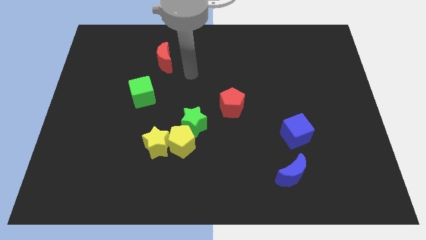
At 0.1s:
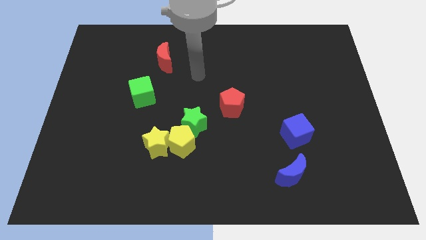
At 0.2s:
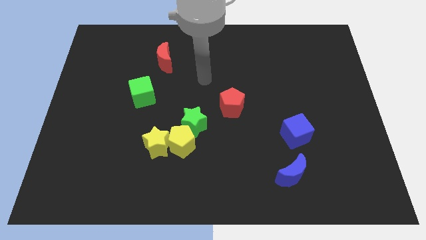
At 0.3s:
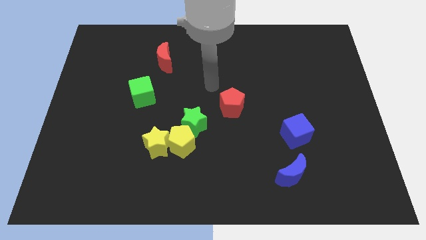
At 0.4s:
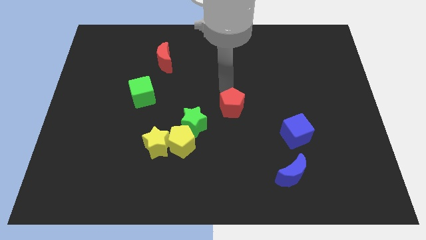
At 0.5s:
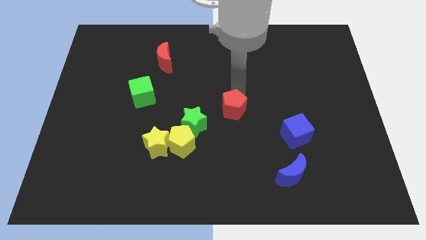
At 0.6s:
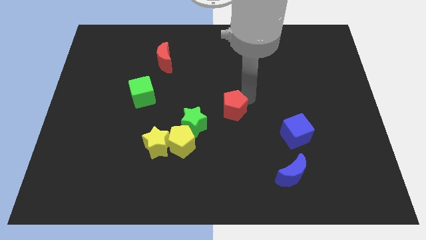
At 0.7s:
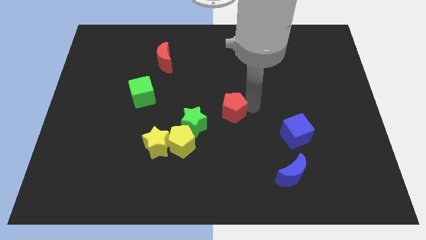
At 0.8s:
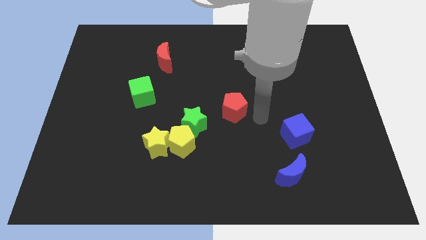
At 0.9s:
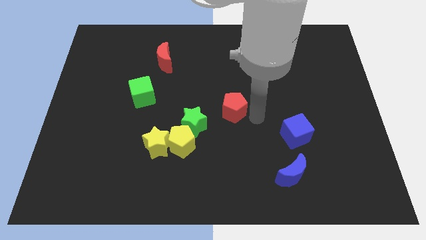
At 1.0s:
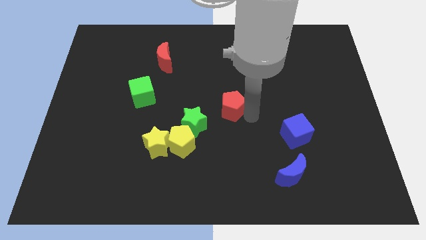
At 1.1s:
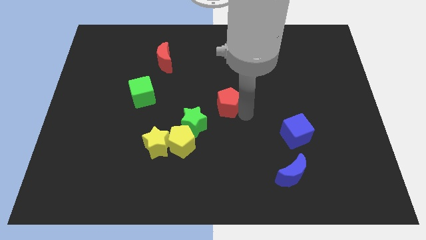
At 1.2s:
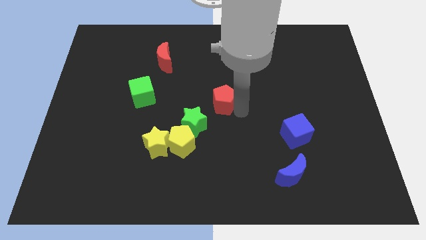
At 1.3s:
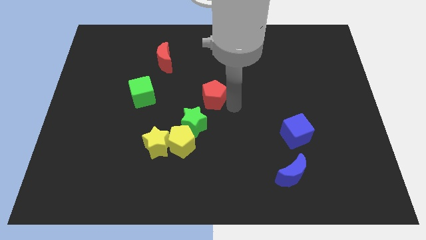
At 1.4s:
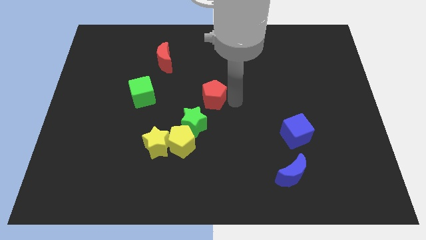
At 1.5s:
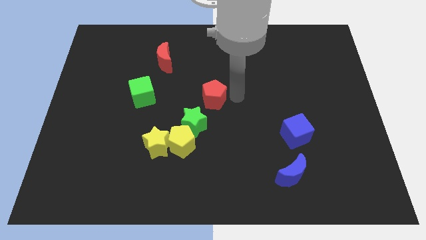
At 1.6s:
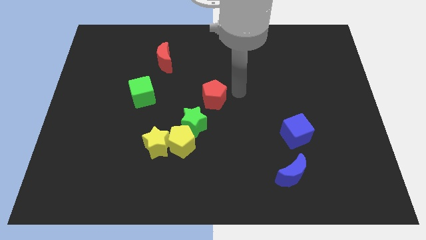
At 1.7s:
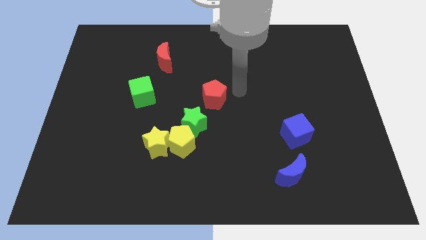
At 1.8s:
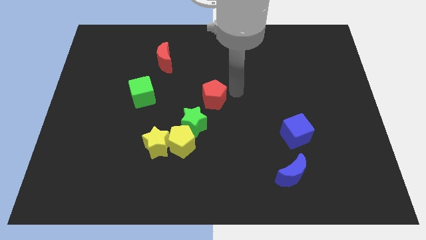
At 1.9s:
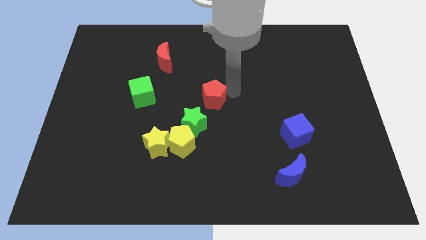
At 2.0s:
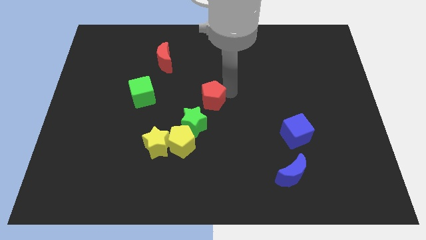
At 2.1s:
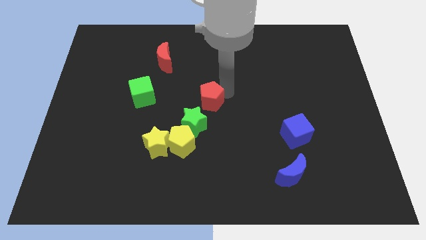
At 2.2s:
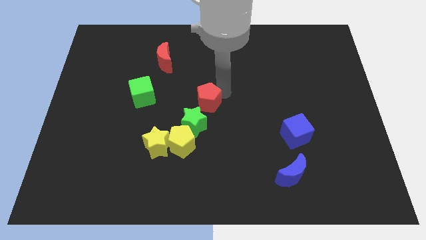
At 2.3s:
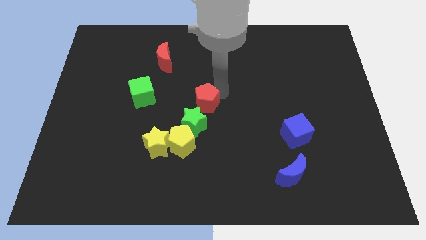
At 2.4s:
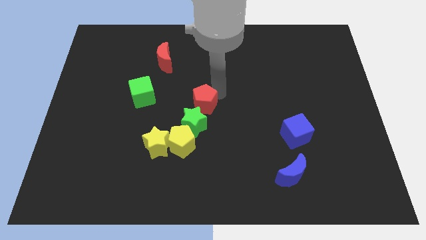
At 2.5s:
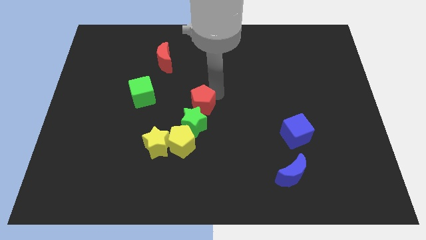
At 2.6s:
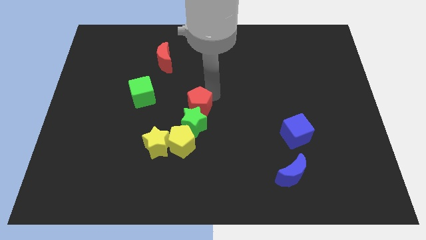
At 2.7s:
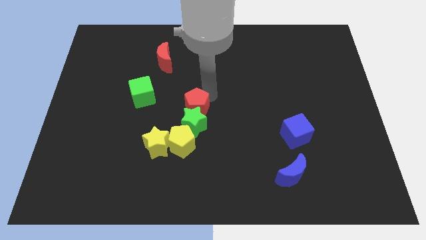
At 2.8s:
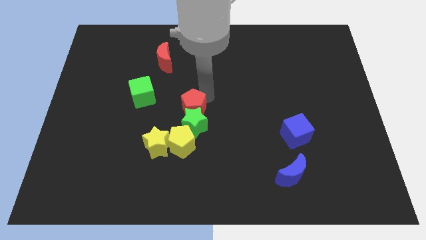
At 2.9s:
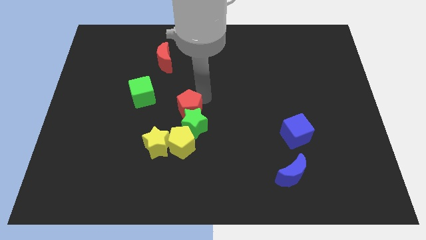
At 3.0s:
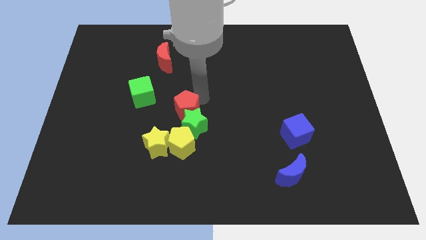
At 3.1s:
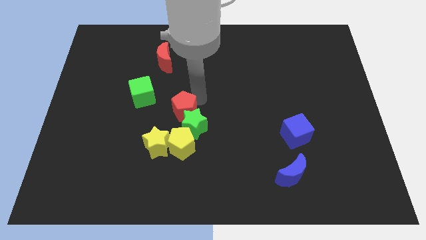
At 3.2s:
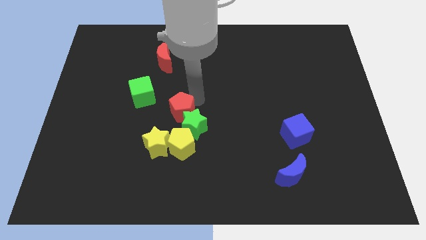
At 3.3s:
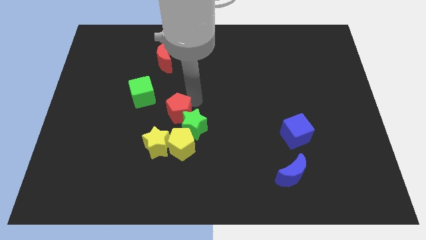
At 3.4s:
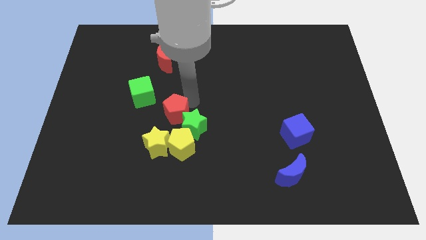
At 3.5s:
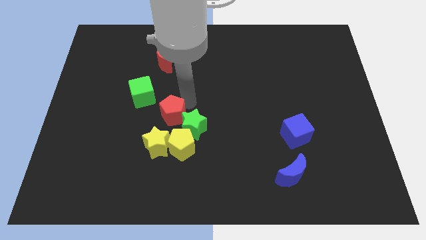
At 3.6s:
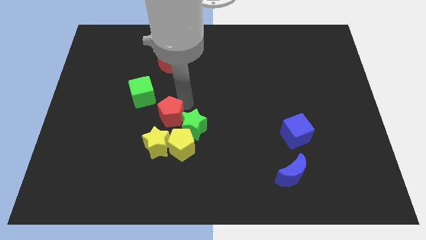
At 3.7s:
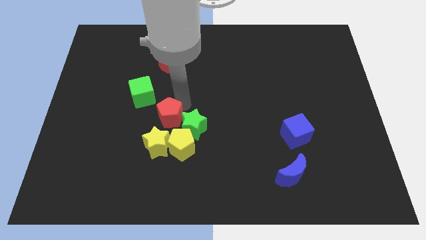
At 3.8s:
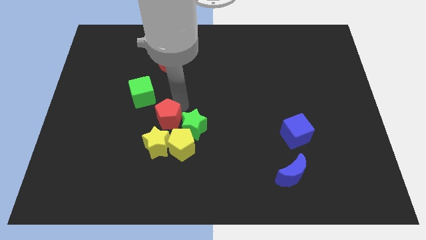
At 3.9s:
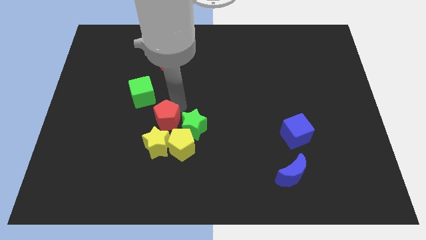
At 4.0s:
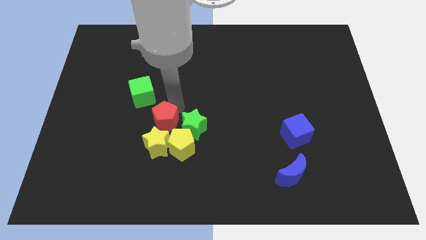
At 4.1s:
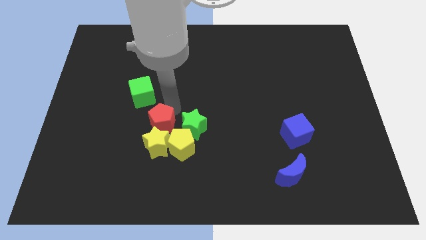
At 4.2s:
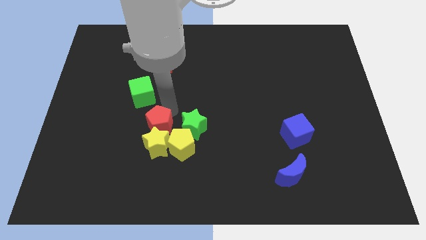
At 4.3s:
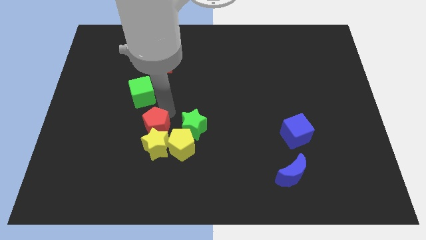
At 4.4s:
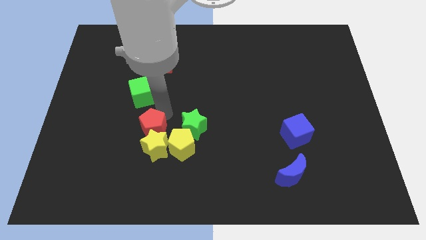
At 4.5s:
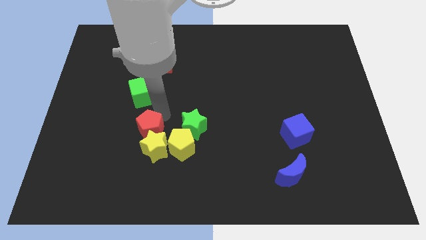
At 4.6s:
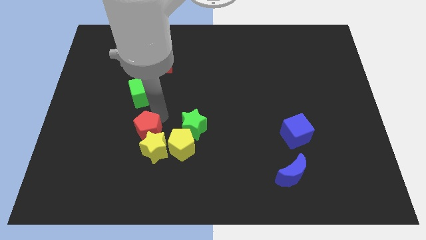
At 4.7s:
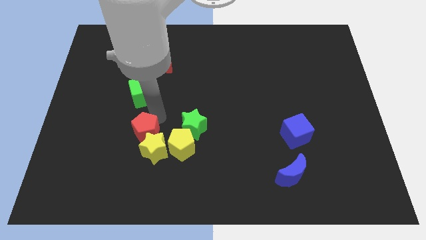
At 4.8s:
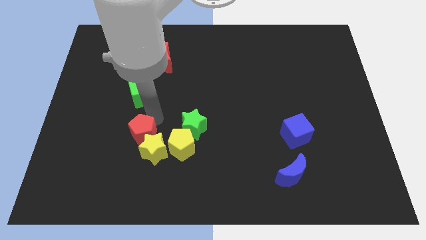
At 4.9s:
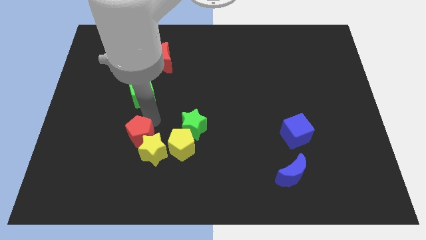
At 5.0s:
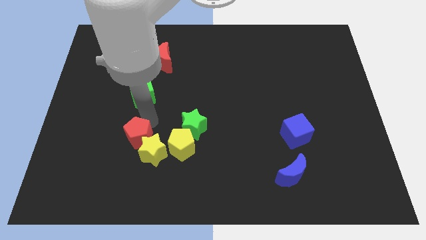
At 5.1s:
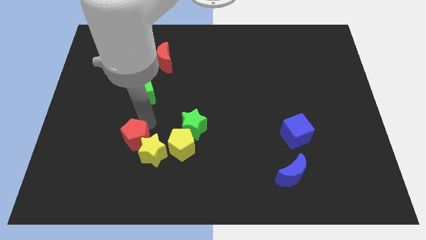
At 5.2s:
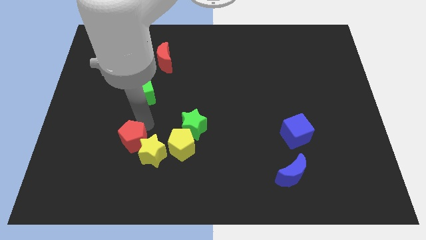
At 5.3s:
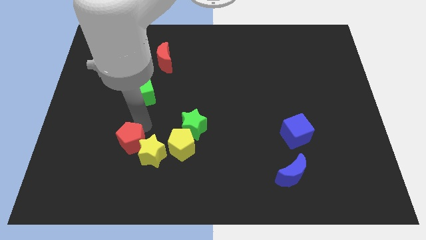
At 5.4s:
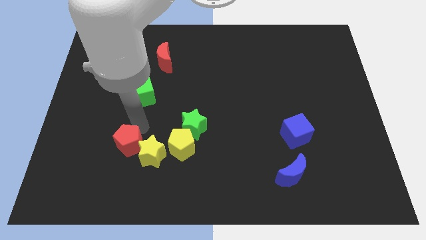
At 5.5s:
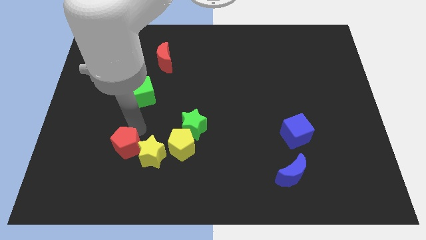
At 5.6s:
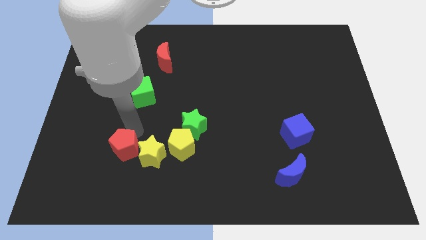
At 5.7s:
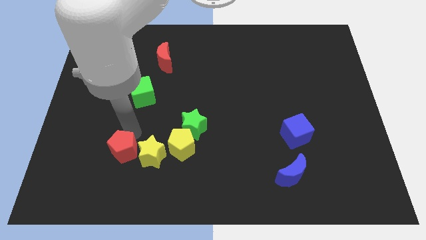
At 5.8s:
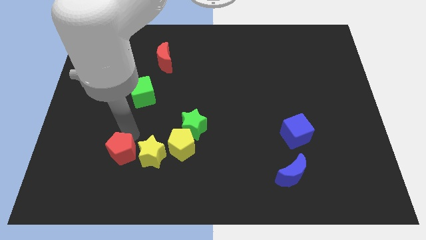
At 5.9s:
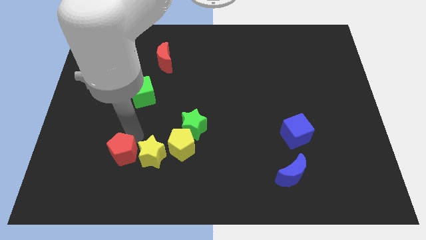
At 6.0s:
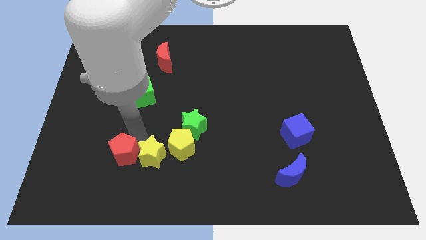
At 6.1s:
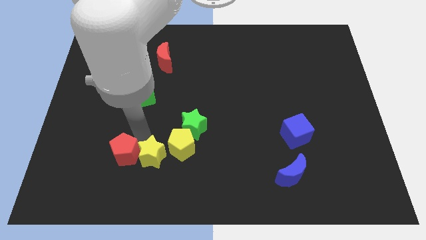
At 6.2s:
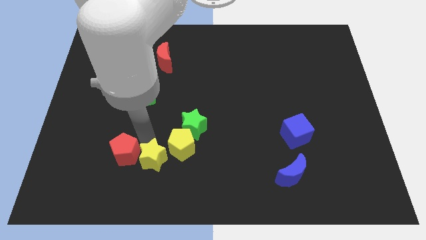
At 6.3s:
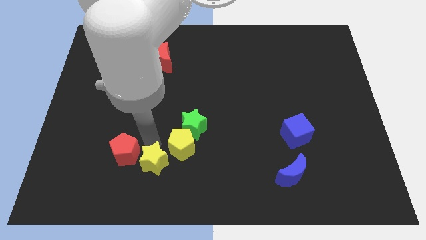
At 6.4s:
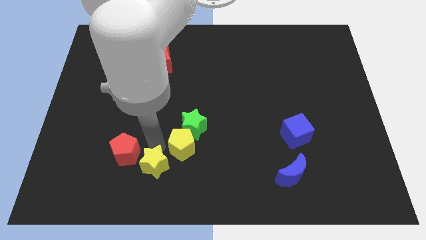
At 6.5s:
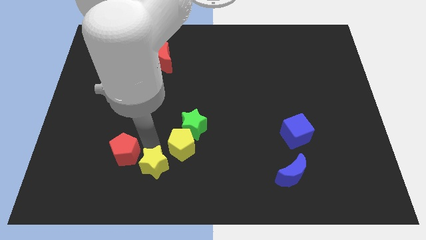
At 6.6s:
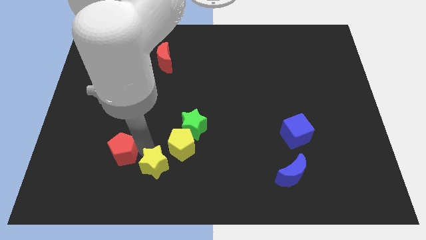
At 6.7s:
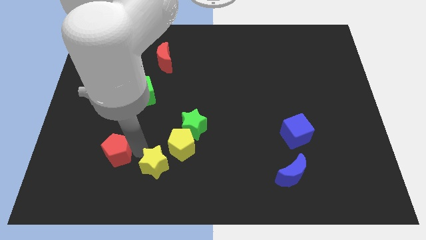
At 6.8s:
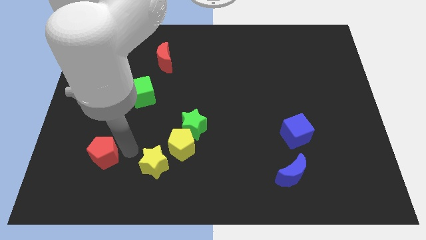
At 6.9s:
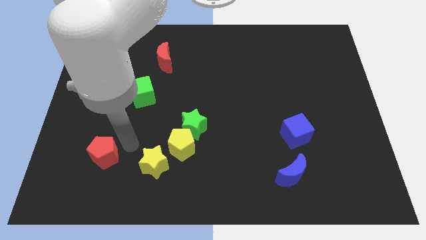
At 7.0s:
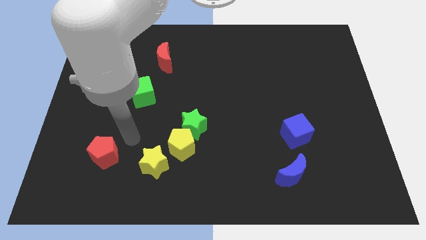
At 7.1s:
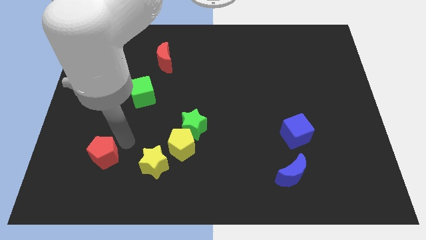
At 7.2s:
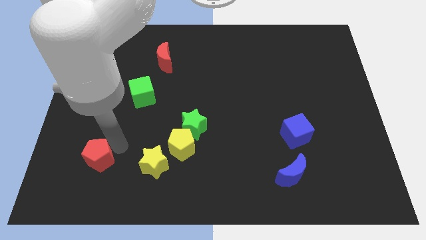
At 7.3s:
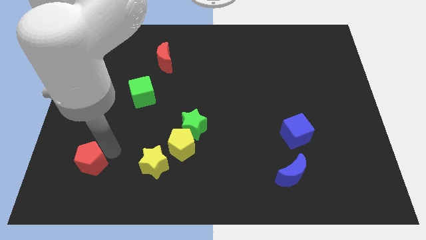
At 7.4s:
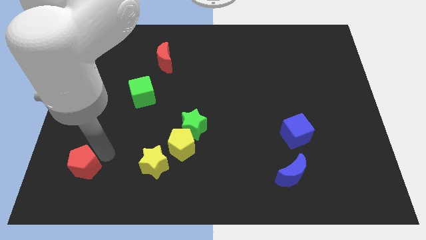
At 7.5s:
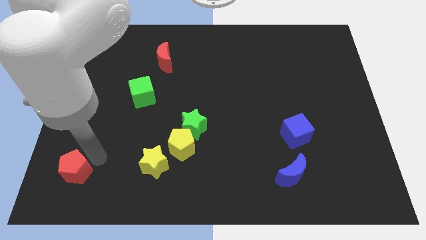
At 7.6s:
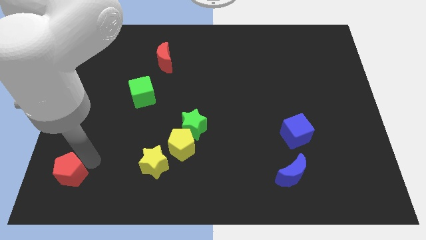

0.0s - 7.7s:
move the red pentagon to the bottom left of the board
